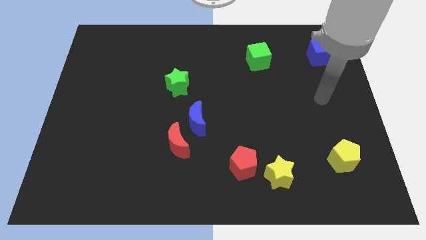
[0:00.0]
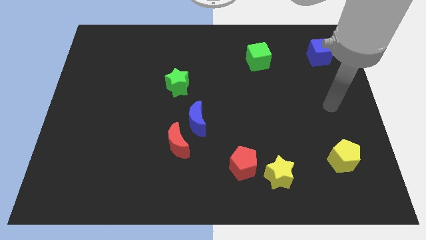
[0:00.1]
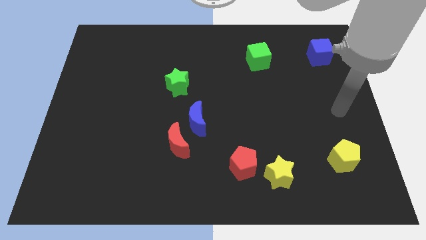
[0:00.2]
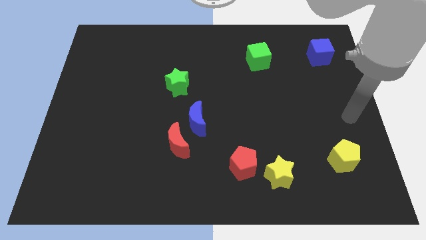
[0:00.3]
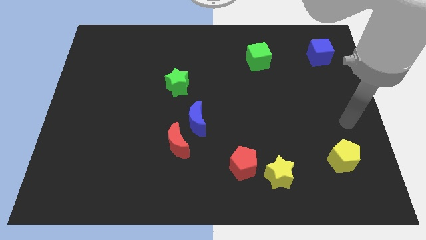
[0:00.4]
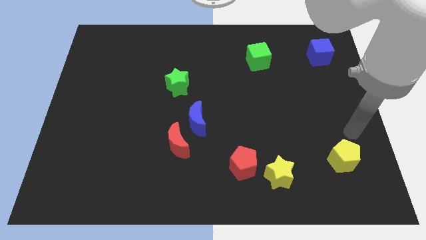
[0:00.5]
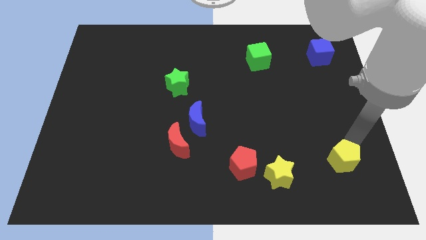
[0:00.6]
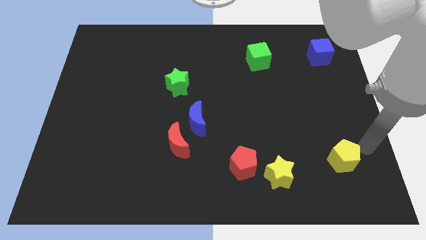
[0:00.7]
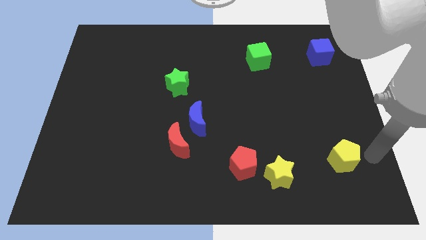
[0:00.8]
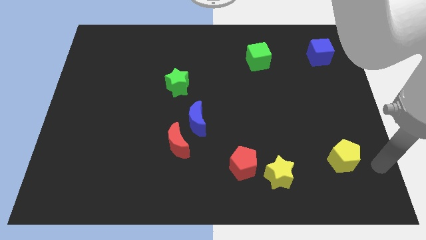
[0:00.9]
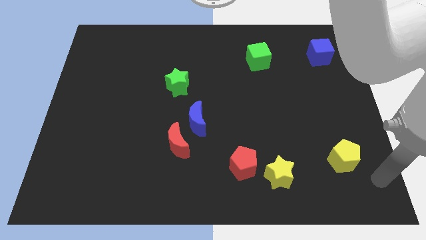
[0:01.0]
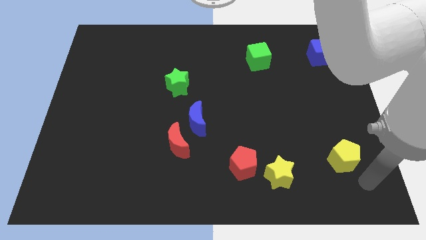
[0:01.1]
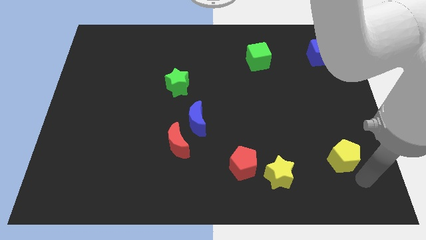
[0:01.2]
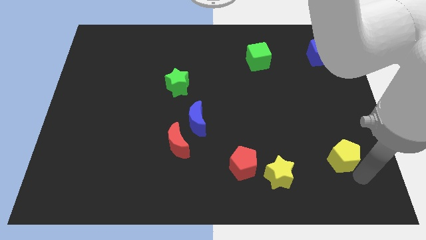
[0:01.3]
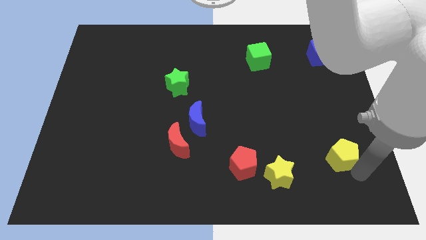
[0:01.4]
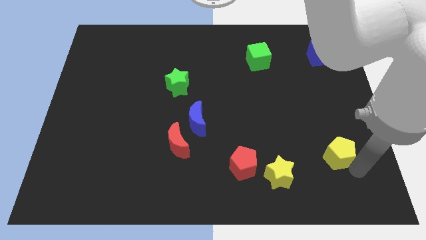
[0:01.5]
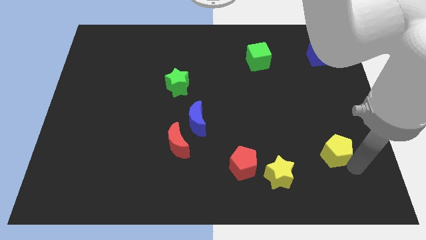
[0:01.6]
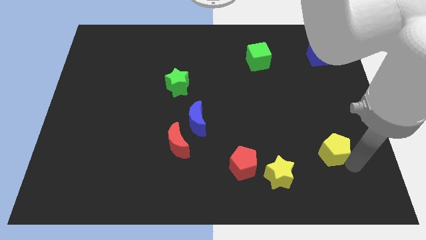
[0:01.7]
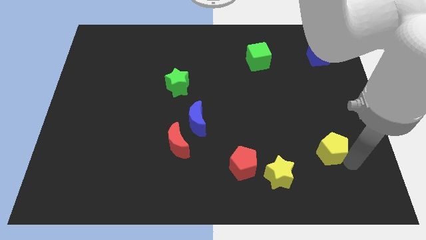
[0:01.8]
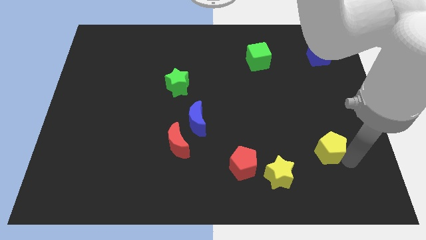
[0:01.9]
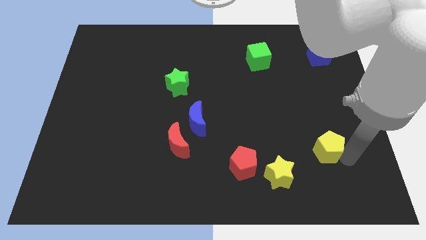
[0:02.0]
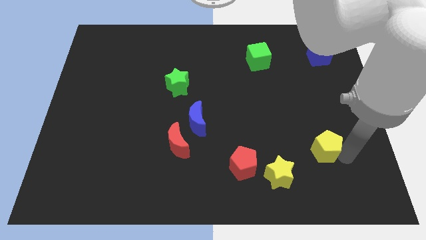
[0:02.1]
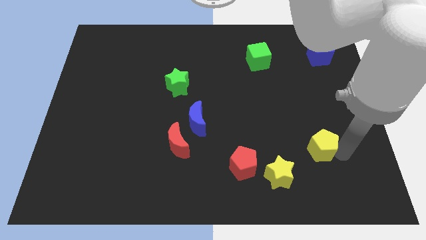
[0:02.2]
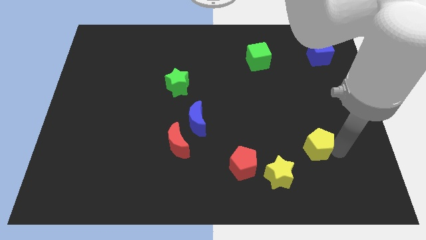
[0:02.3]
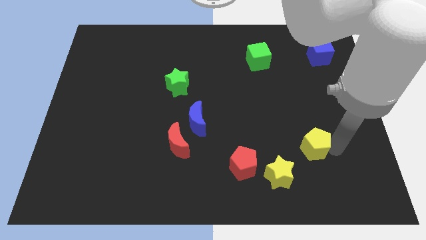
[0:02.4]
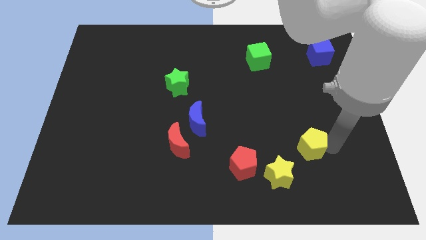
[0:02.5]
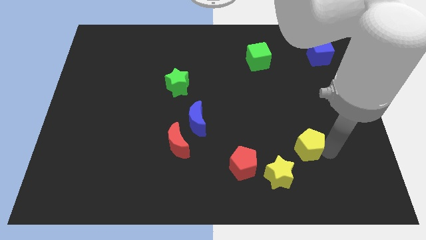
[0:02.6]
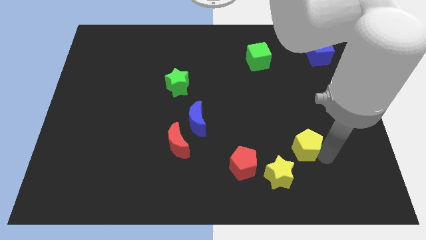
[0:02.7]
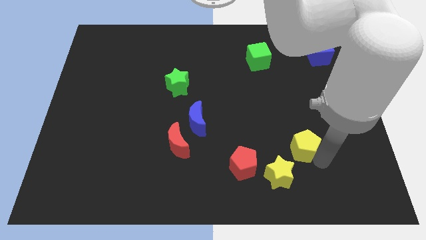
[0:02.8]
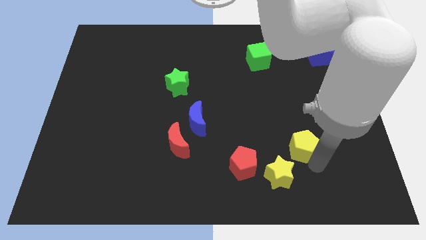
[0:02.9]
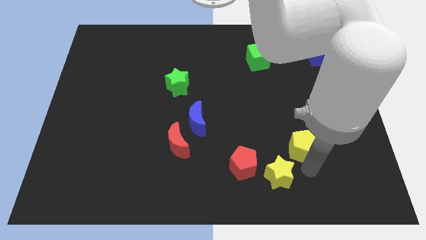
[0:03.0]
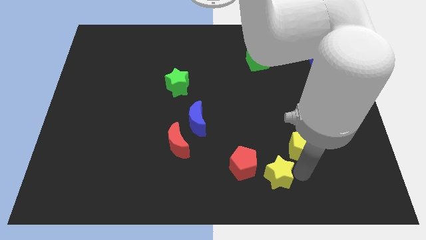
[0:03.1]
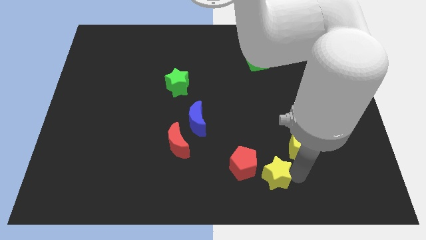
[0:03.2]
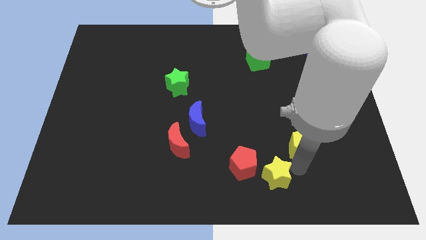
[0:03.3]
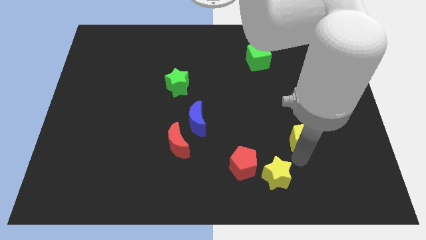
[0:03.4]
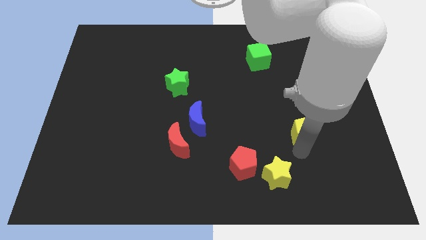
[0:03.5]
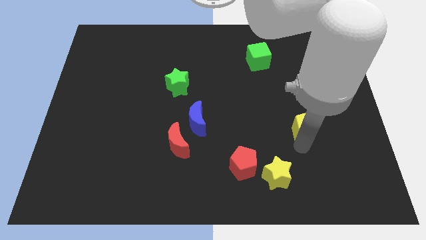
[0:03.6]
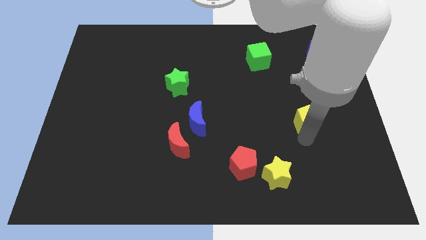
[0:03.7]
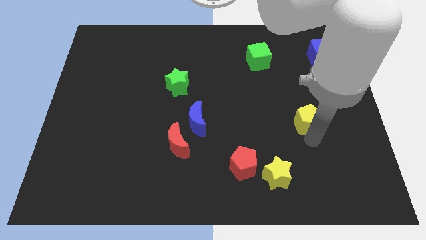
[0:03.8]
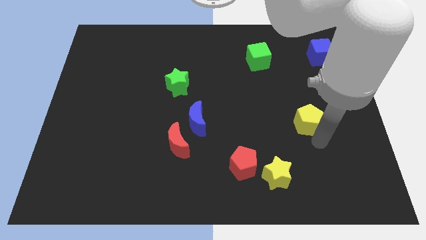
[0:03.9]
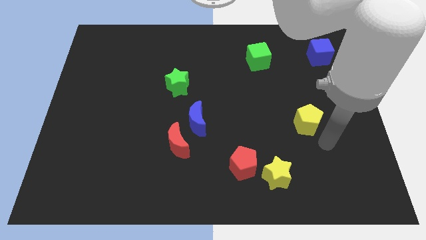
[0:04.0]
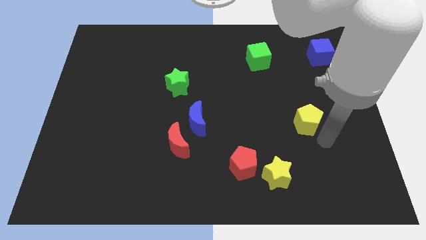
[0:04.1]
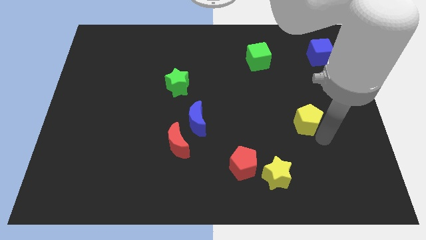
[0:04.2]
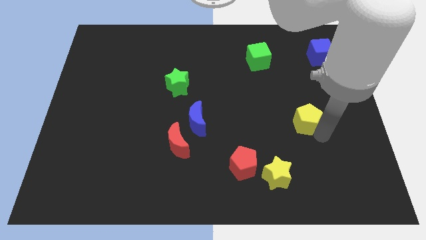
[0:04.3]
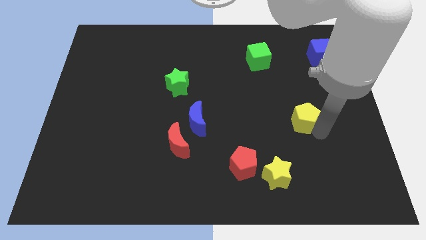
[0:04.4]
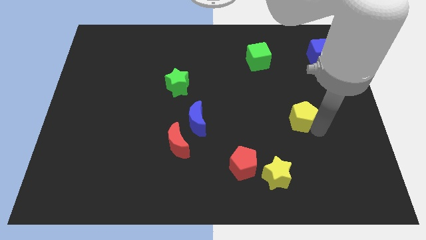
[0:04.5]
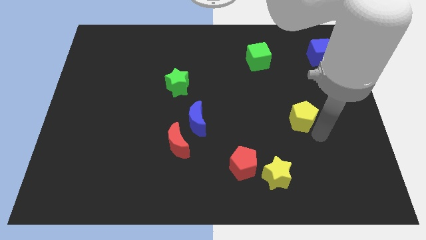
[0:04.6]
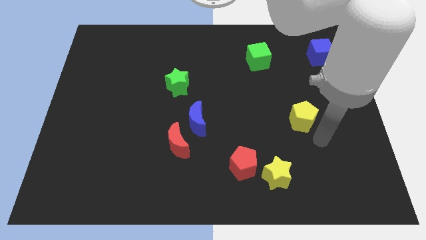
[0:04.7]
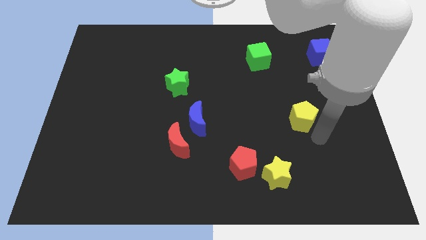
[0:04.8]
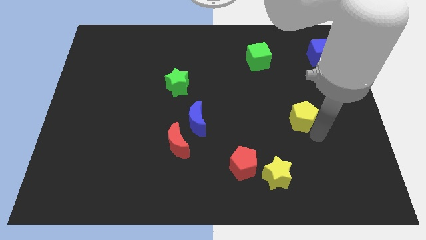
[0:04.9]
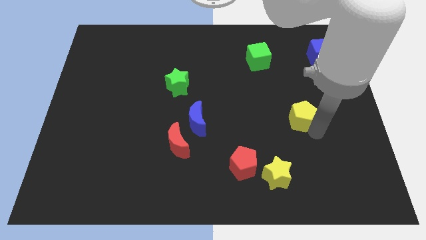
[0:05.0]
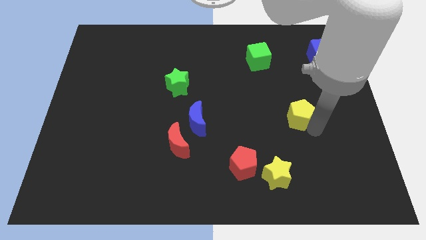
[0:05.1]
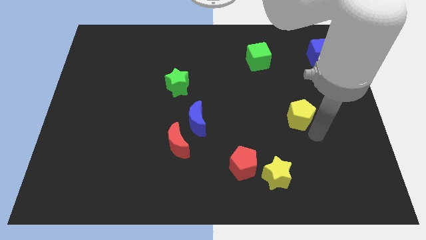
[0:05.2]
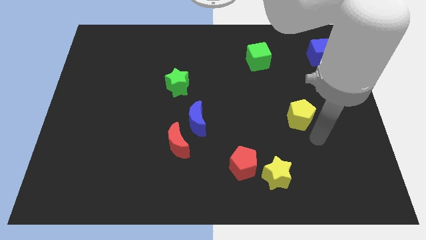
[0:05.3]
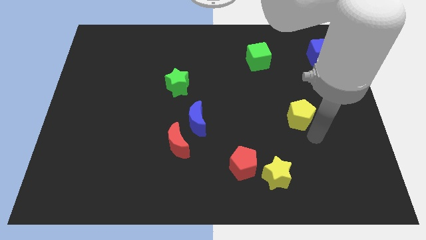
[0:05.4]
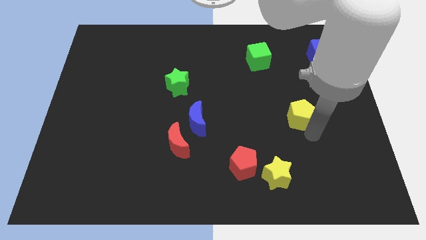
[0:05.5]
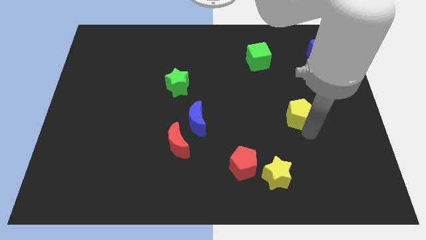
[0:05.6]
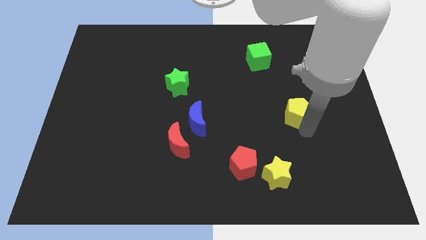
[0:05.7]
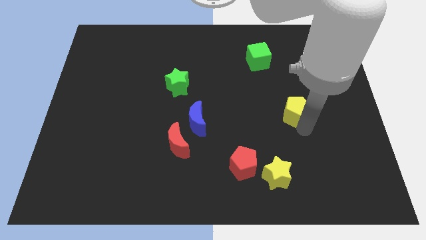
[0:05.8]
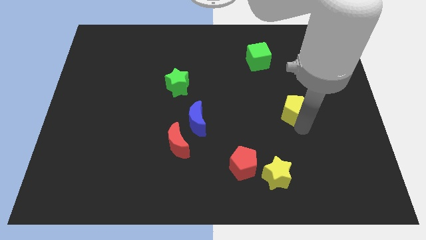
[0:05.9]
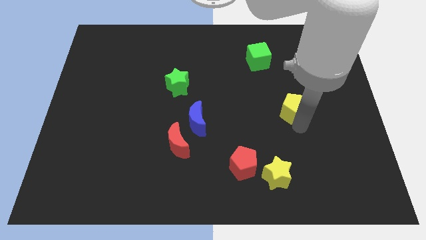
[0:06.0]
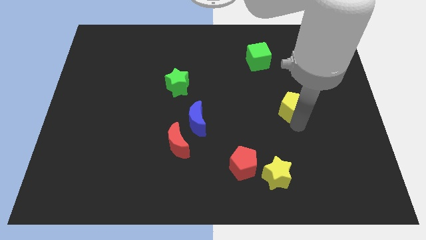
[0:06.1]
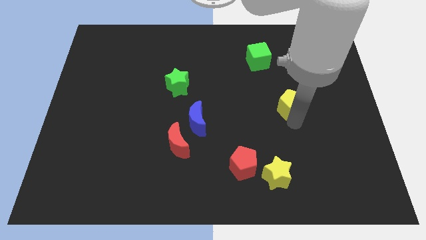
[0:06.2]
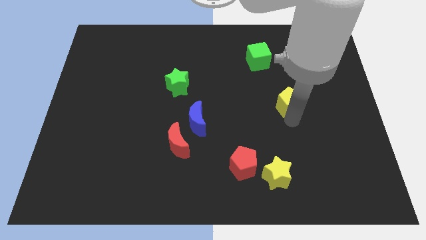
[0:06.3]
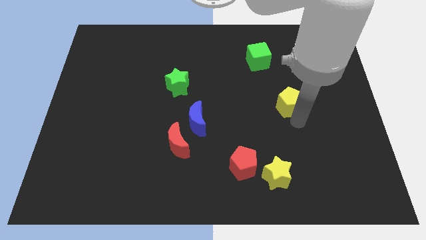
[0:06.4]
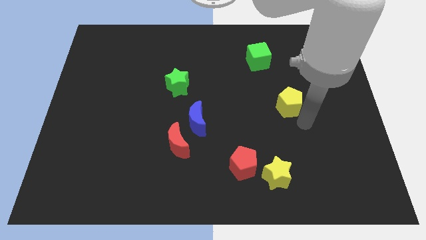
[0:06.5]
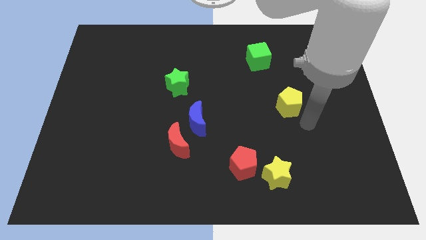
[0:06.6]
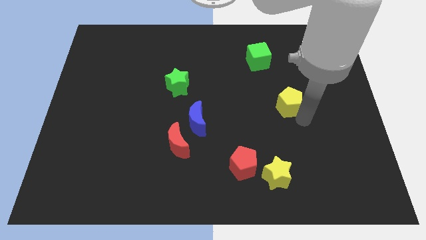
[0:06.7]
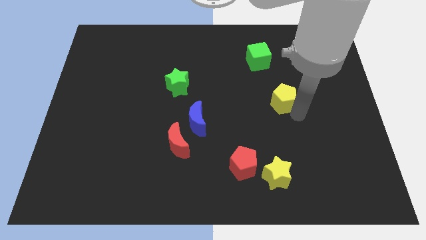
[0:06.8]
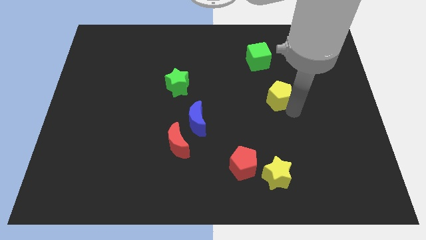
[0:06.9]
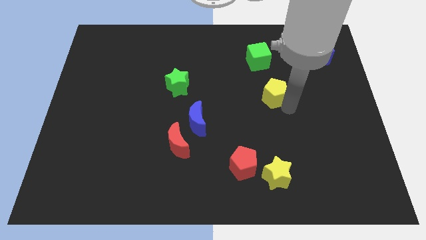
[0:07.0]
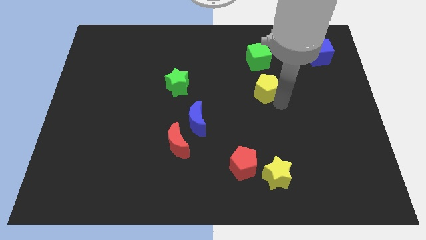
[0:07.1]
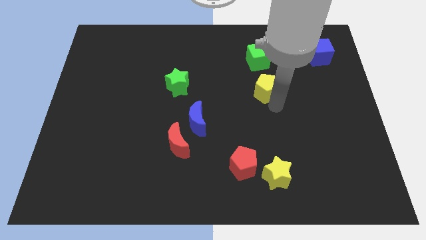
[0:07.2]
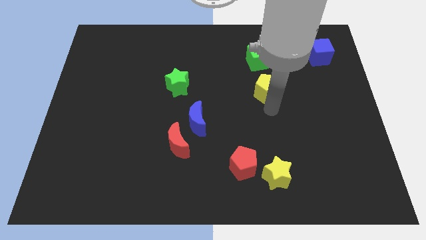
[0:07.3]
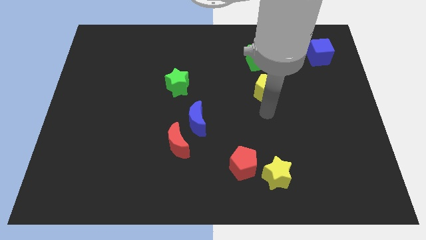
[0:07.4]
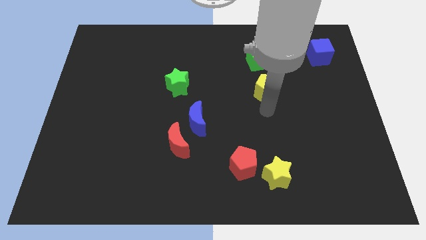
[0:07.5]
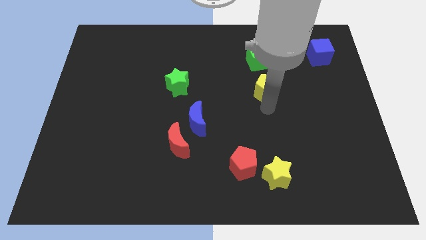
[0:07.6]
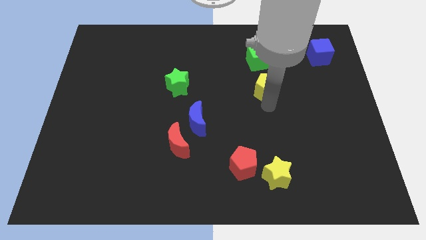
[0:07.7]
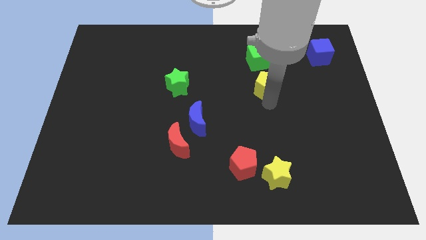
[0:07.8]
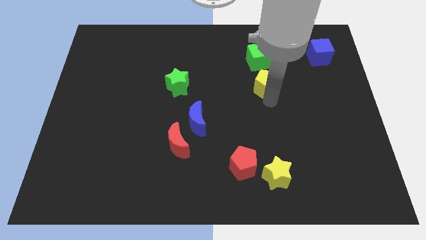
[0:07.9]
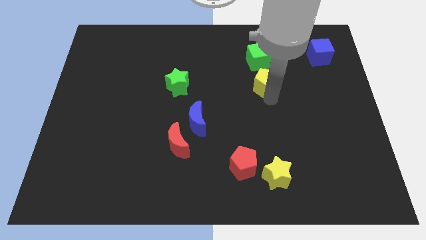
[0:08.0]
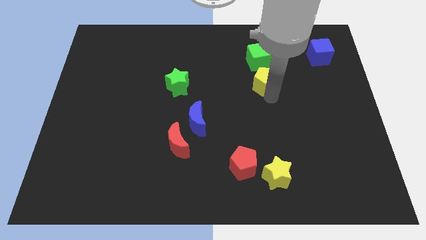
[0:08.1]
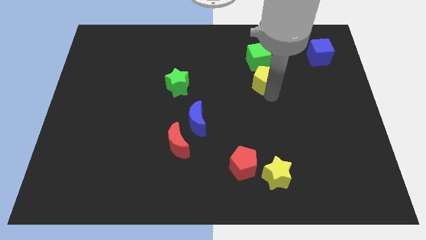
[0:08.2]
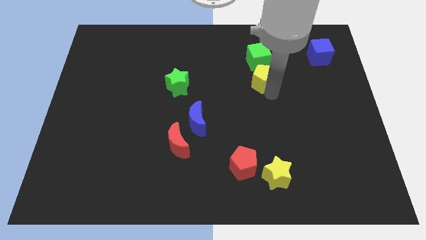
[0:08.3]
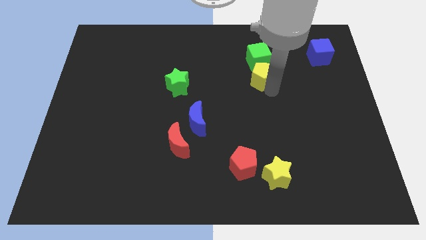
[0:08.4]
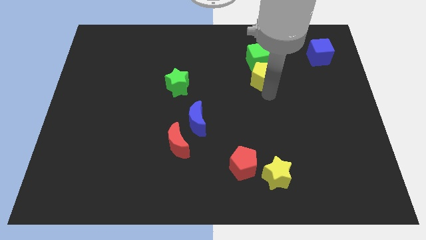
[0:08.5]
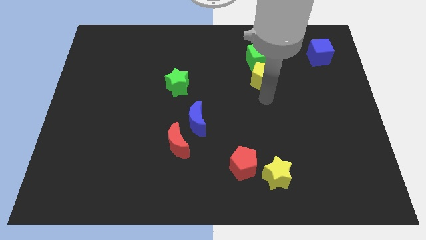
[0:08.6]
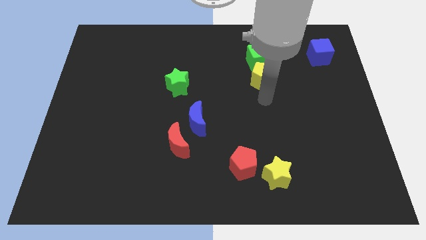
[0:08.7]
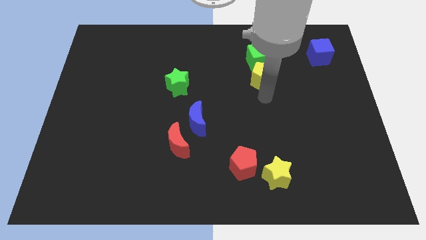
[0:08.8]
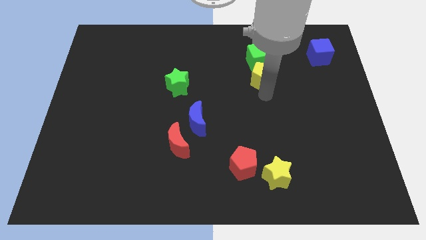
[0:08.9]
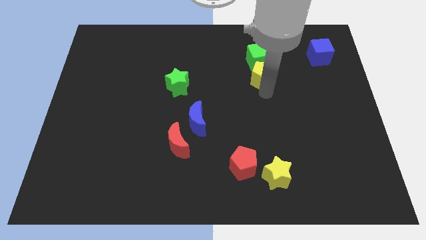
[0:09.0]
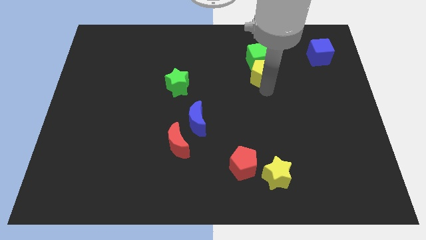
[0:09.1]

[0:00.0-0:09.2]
push the yellow pentagon close to the green cube
